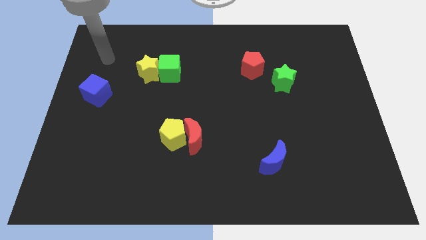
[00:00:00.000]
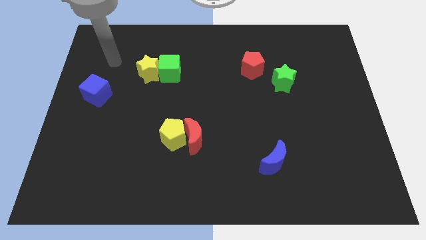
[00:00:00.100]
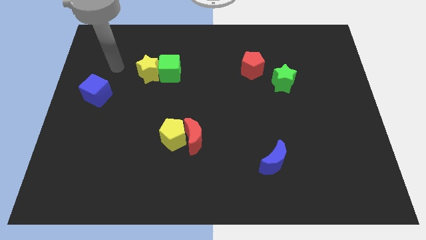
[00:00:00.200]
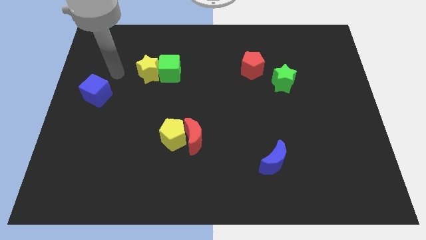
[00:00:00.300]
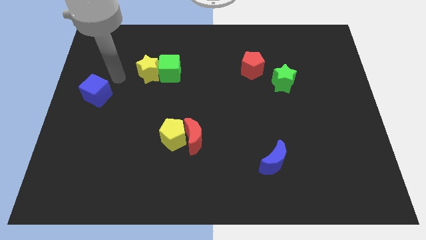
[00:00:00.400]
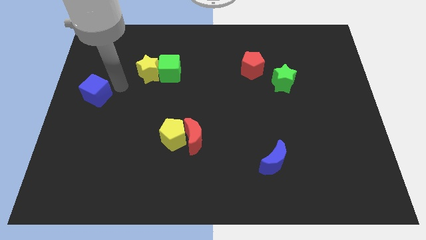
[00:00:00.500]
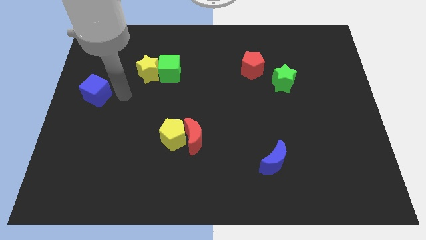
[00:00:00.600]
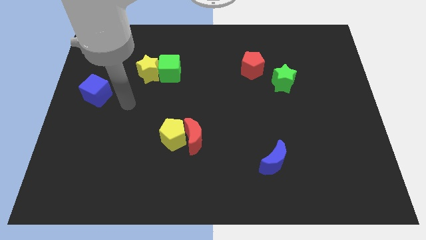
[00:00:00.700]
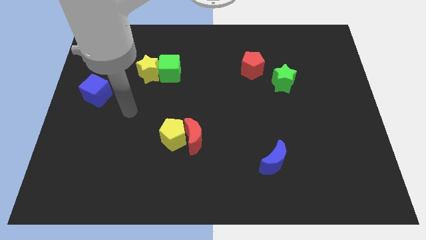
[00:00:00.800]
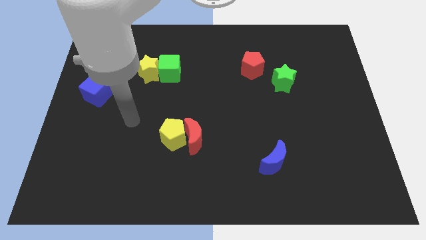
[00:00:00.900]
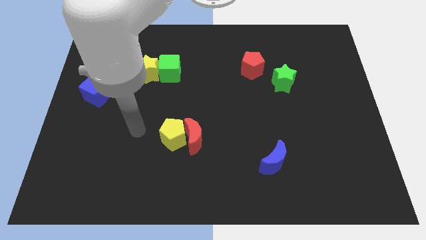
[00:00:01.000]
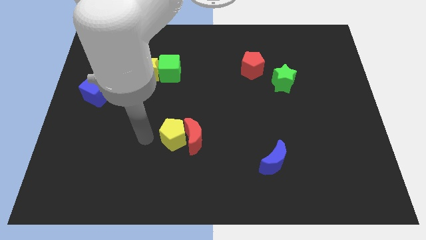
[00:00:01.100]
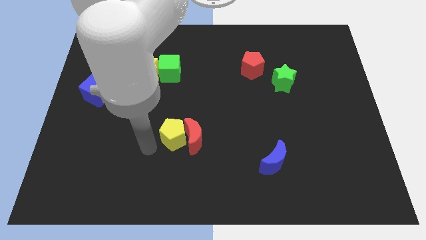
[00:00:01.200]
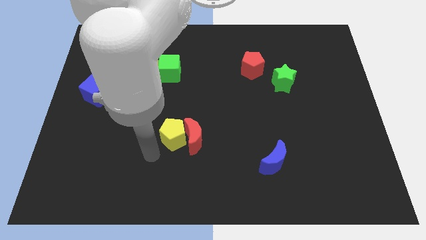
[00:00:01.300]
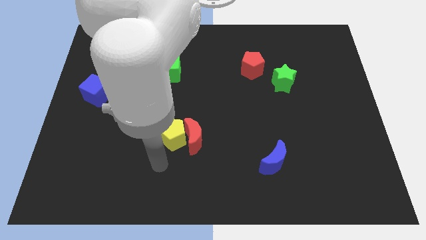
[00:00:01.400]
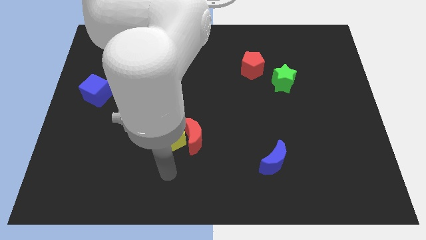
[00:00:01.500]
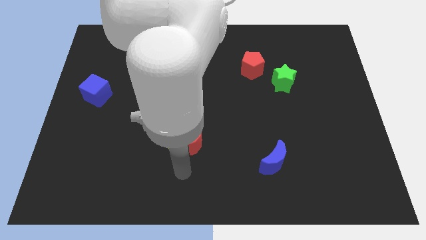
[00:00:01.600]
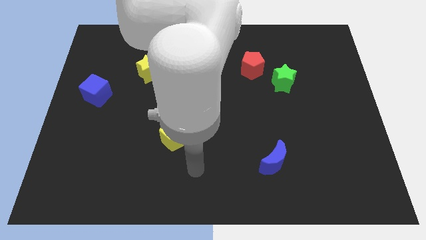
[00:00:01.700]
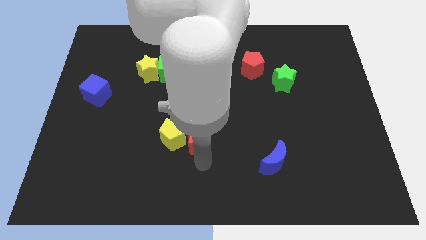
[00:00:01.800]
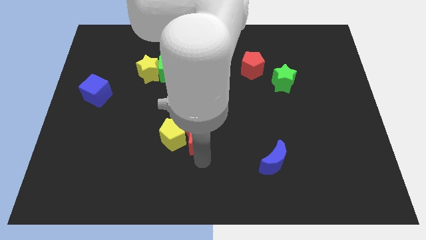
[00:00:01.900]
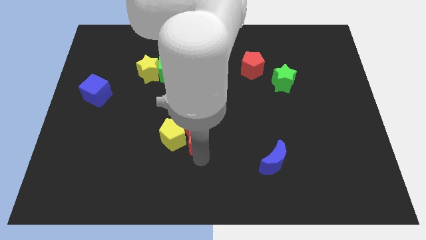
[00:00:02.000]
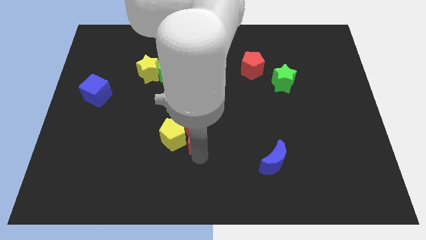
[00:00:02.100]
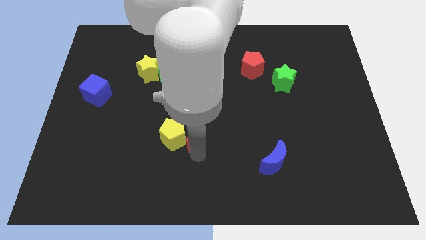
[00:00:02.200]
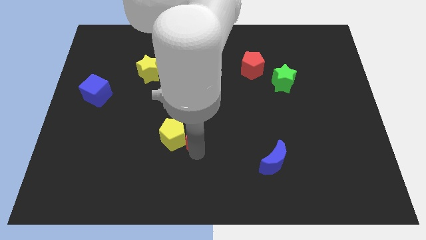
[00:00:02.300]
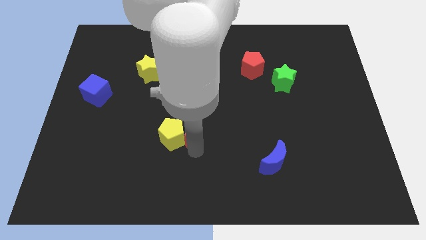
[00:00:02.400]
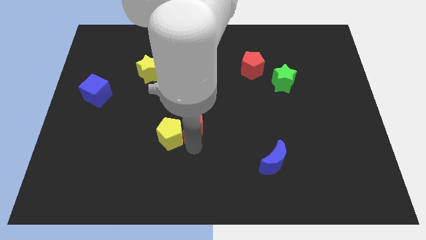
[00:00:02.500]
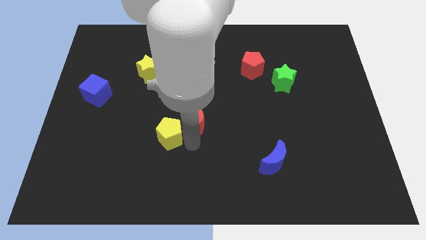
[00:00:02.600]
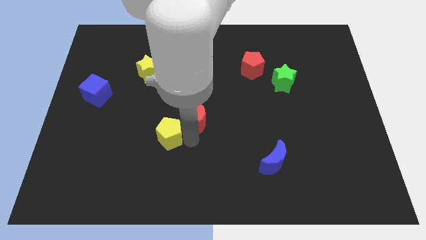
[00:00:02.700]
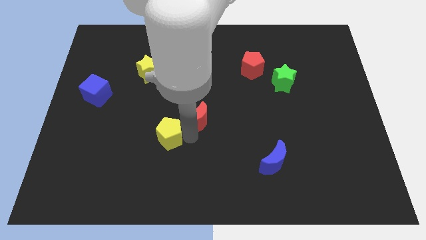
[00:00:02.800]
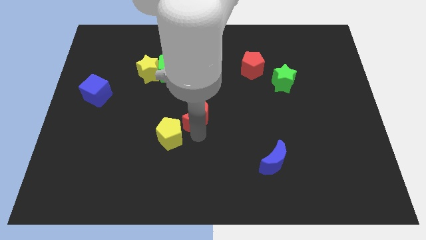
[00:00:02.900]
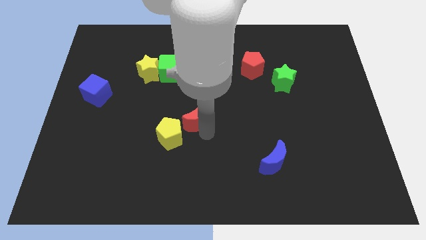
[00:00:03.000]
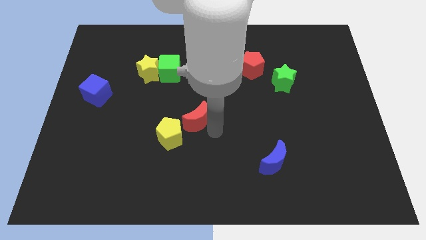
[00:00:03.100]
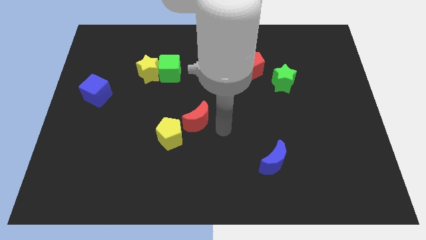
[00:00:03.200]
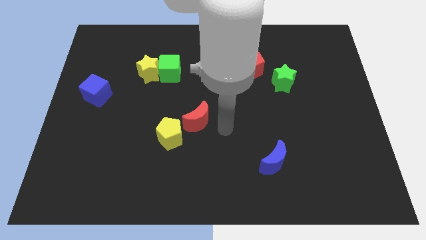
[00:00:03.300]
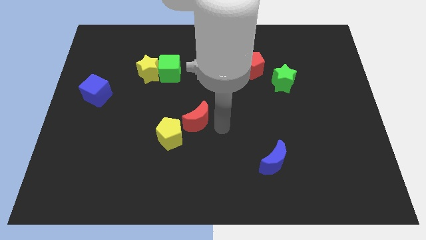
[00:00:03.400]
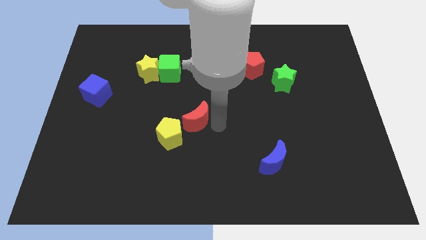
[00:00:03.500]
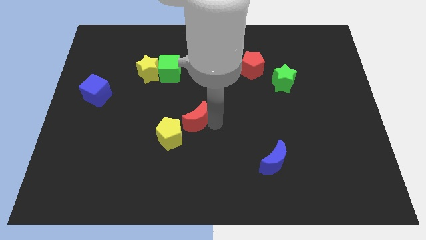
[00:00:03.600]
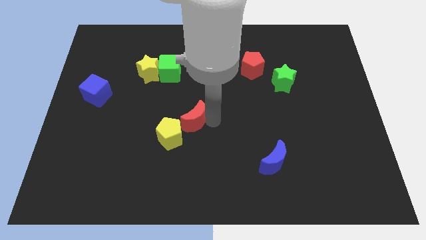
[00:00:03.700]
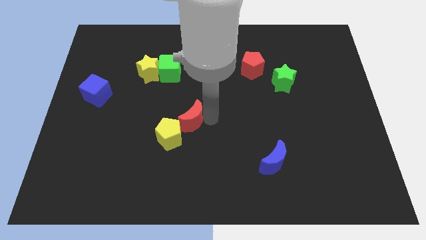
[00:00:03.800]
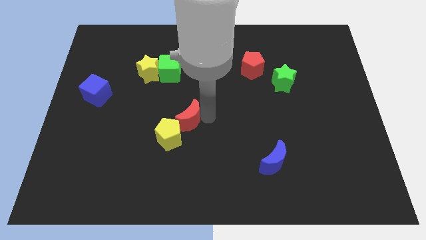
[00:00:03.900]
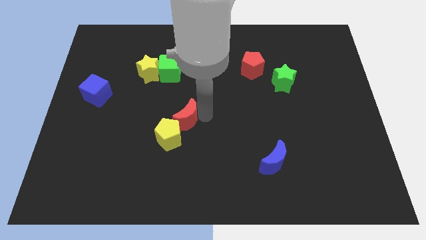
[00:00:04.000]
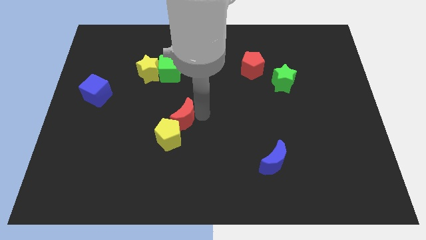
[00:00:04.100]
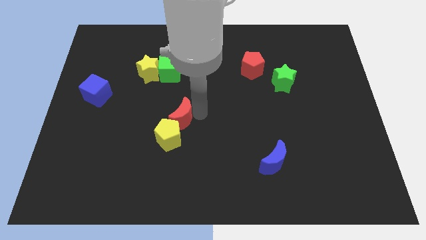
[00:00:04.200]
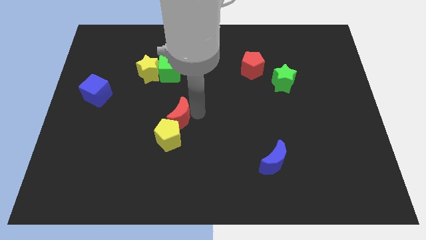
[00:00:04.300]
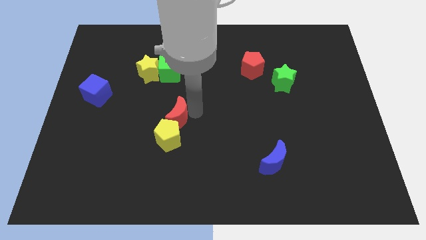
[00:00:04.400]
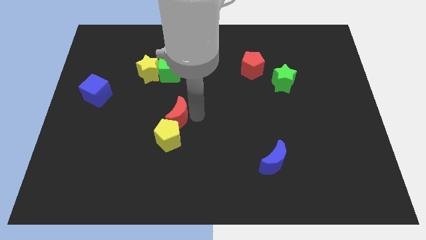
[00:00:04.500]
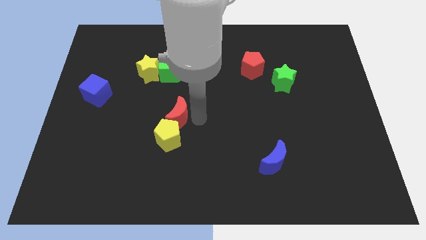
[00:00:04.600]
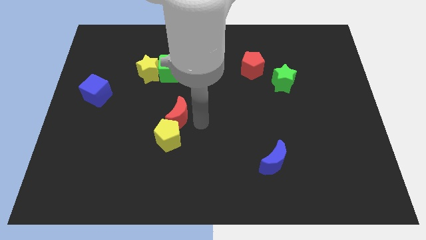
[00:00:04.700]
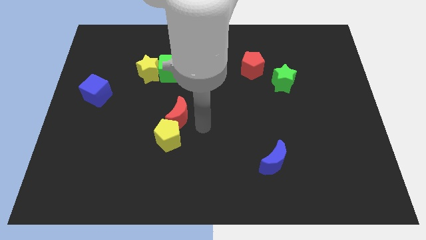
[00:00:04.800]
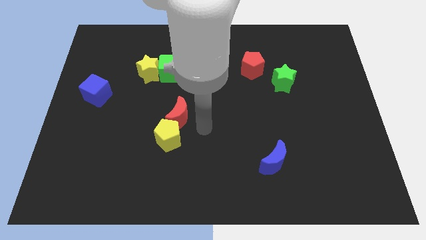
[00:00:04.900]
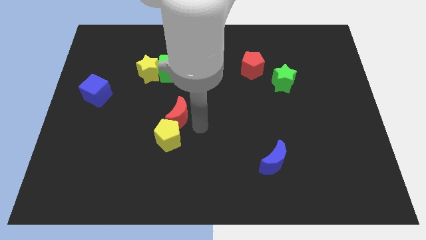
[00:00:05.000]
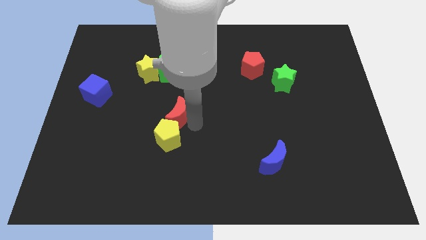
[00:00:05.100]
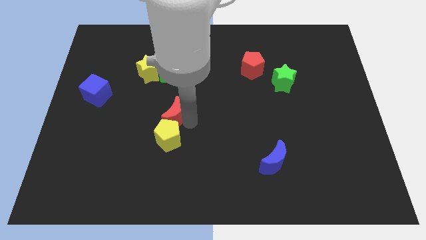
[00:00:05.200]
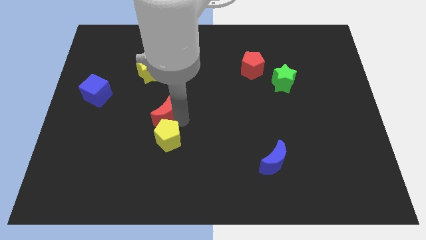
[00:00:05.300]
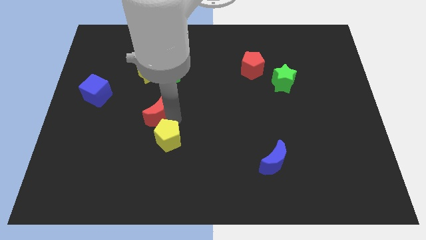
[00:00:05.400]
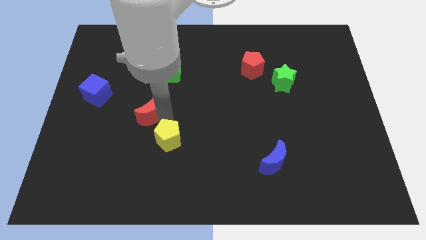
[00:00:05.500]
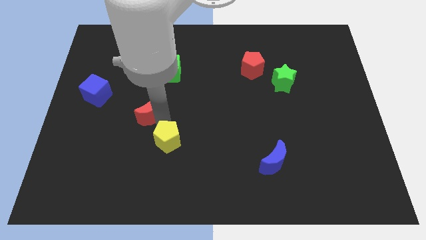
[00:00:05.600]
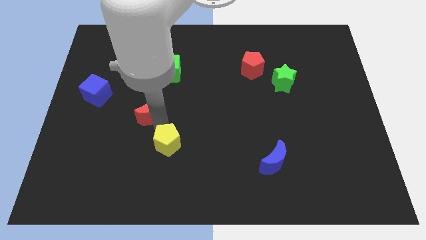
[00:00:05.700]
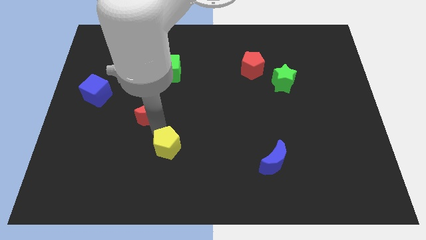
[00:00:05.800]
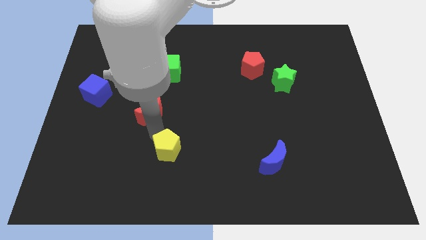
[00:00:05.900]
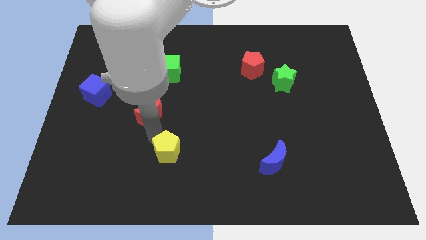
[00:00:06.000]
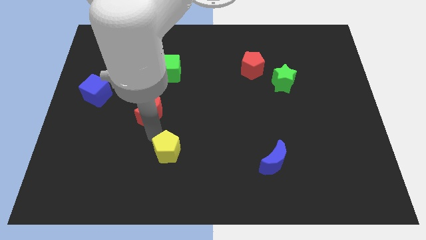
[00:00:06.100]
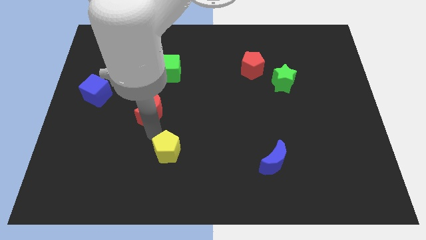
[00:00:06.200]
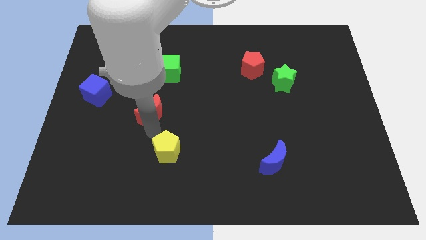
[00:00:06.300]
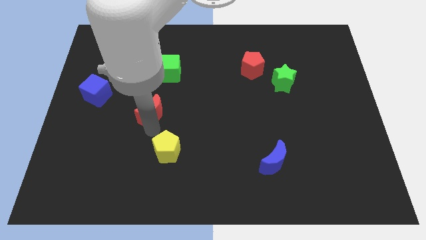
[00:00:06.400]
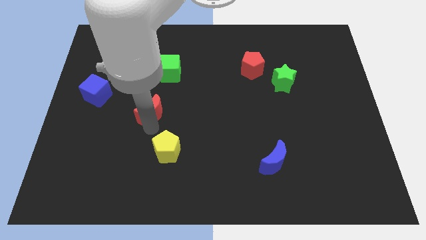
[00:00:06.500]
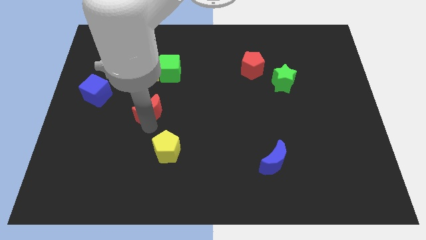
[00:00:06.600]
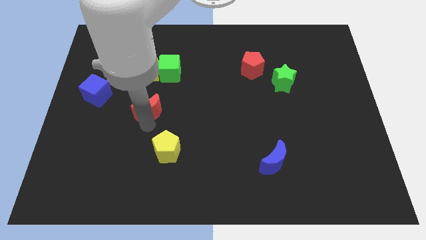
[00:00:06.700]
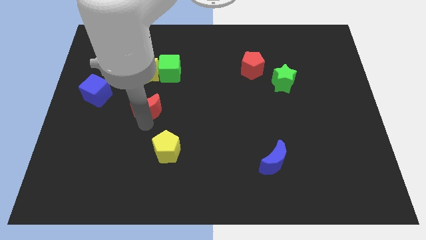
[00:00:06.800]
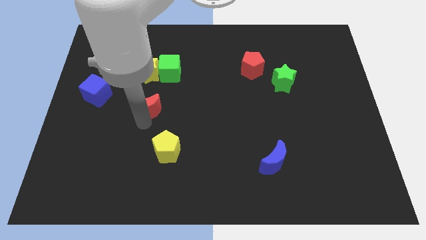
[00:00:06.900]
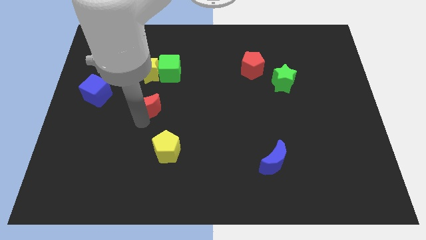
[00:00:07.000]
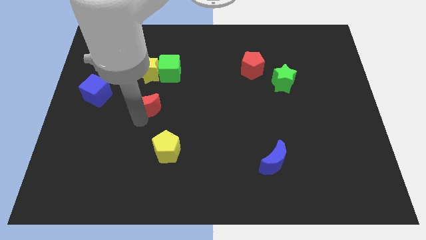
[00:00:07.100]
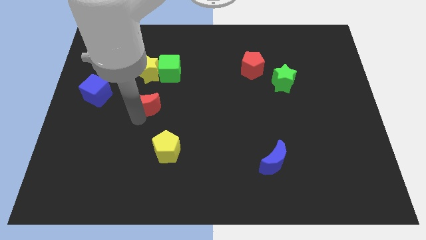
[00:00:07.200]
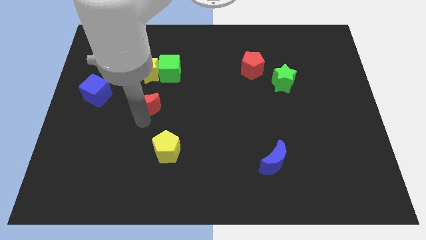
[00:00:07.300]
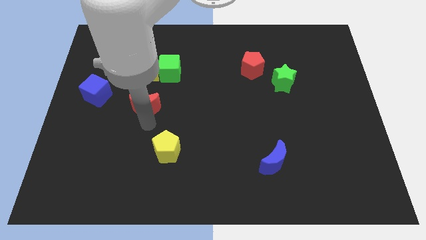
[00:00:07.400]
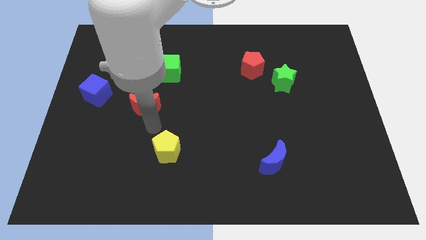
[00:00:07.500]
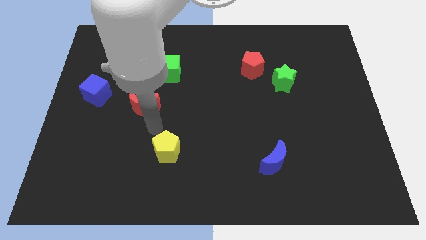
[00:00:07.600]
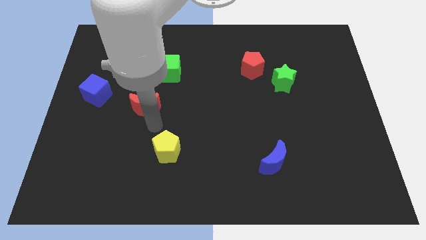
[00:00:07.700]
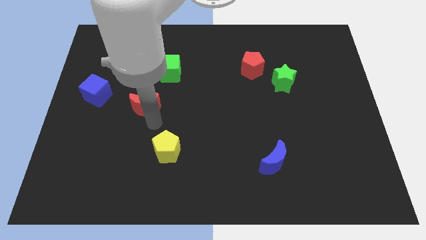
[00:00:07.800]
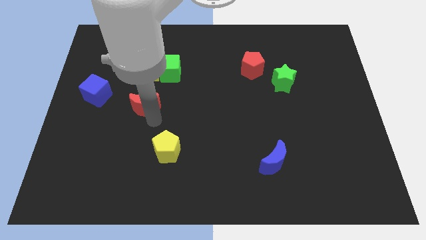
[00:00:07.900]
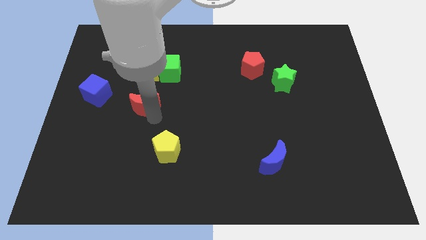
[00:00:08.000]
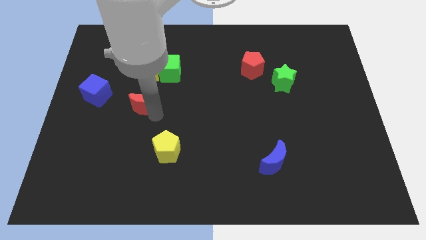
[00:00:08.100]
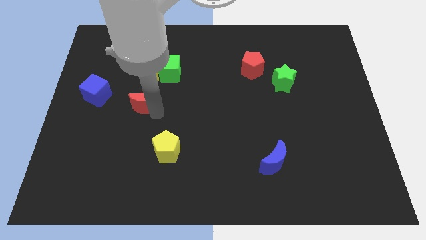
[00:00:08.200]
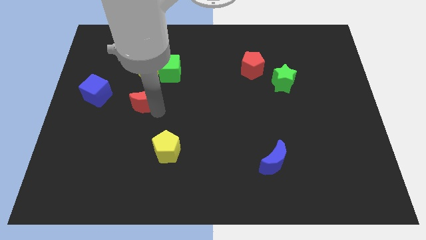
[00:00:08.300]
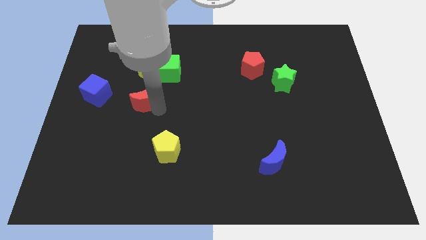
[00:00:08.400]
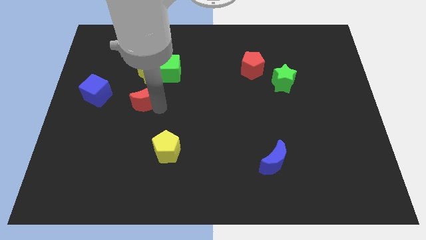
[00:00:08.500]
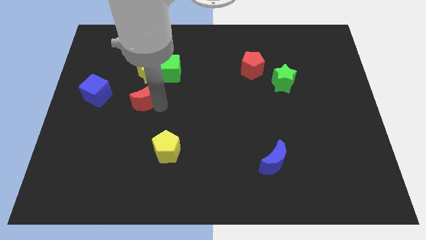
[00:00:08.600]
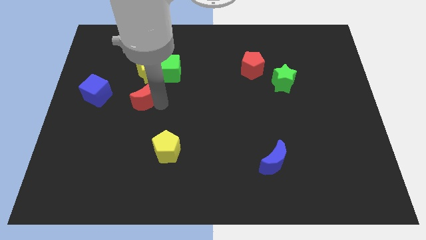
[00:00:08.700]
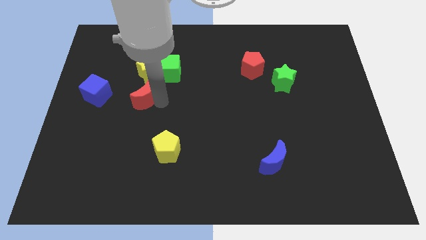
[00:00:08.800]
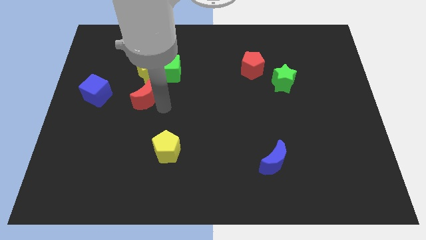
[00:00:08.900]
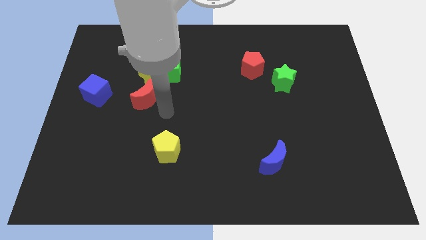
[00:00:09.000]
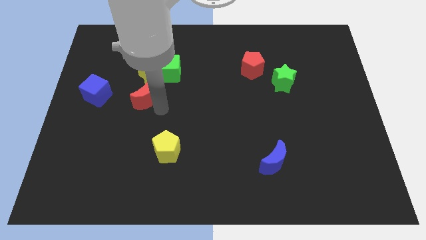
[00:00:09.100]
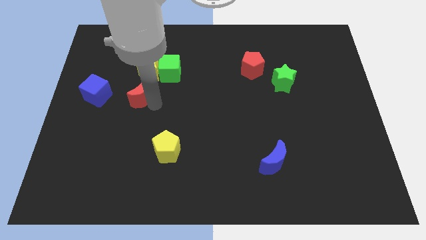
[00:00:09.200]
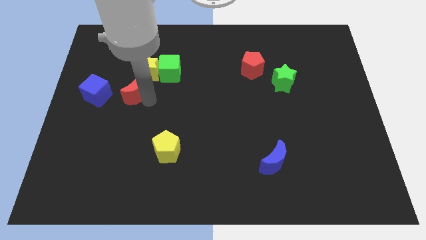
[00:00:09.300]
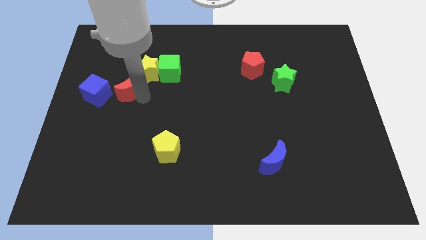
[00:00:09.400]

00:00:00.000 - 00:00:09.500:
slide the red moon up and then to the left
